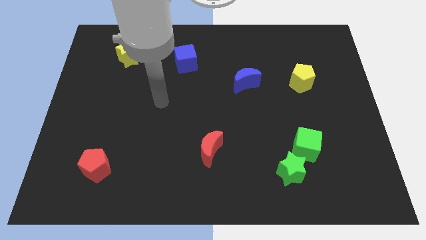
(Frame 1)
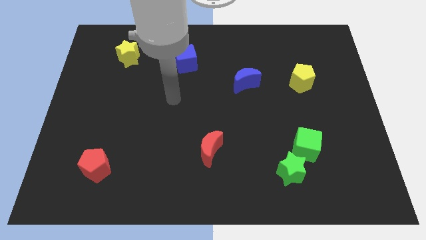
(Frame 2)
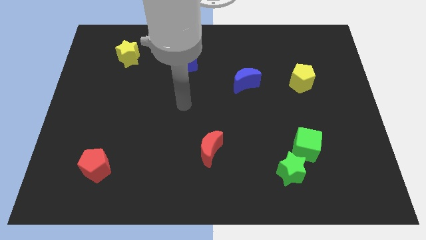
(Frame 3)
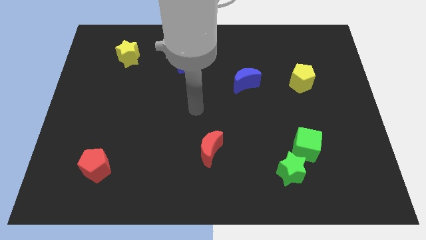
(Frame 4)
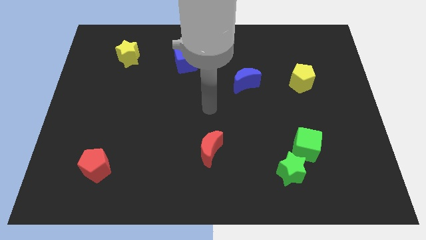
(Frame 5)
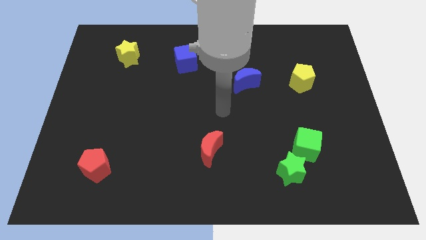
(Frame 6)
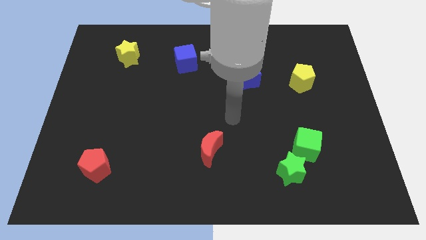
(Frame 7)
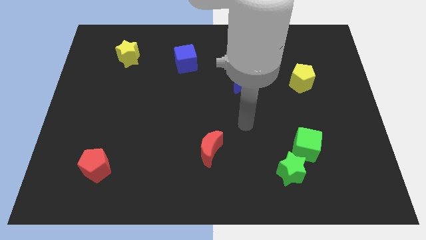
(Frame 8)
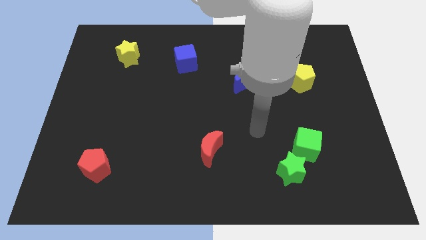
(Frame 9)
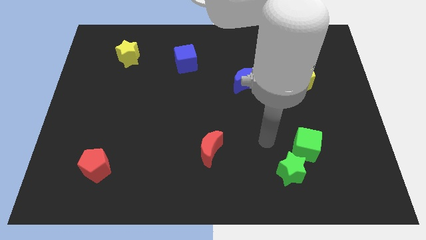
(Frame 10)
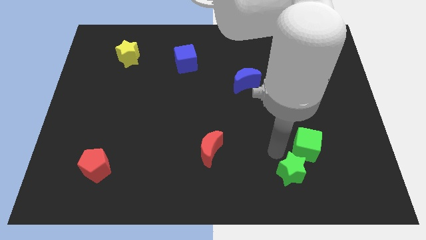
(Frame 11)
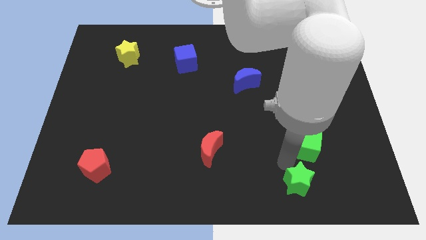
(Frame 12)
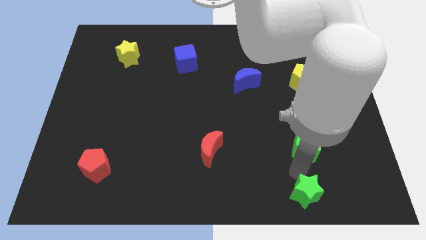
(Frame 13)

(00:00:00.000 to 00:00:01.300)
move the green cube away from the green star

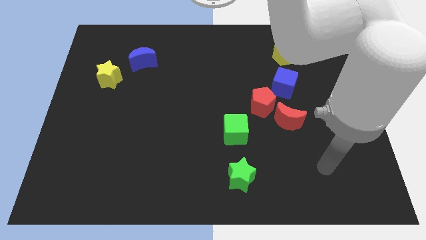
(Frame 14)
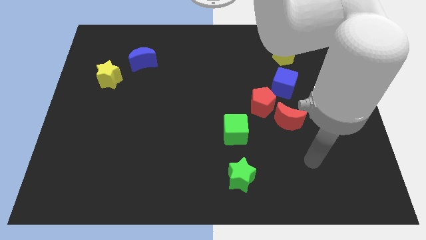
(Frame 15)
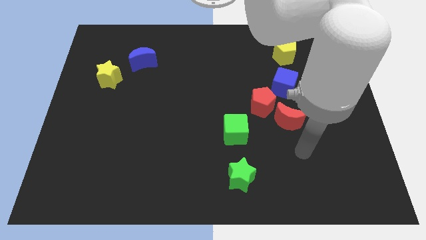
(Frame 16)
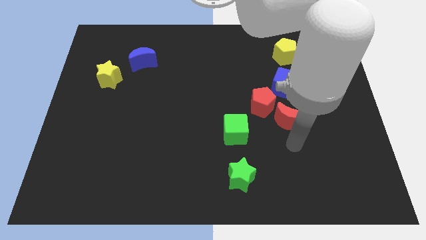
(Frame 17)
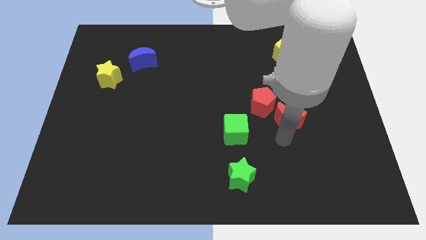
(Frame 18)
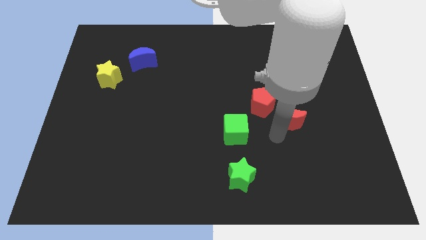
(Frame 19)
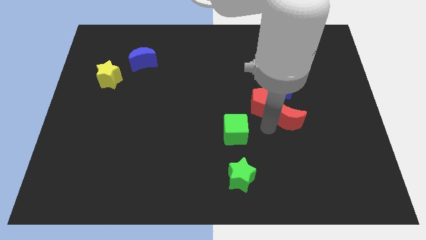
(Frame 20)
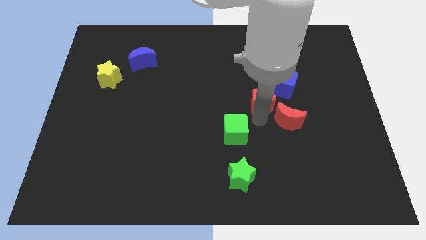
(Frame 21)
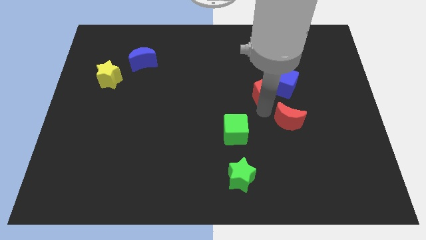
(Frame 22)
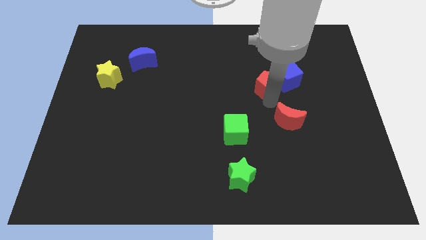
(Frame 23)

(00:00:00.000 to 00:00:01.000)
pull the red moon apart from the red pentagon

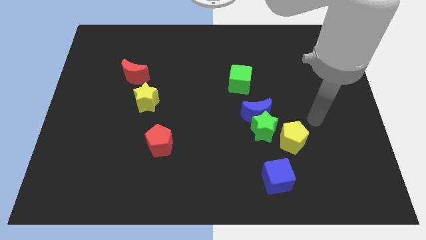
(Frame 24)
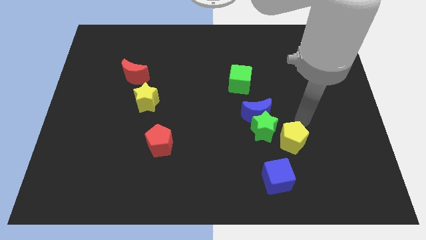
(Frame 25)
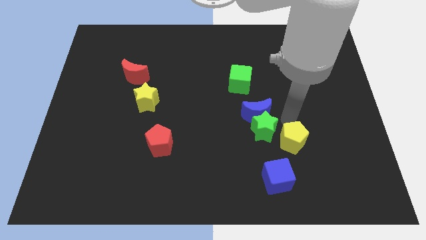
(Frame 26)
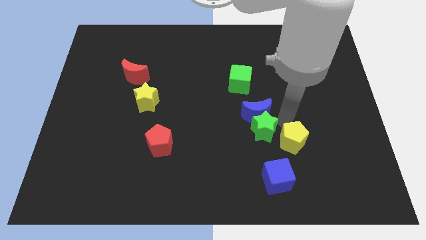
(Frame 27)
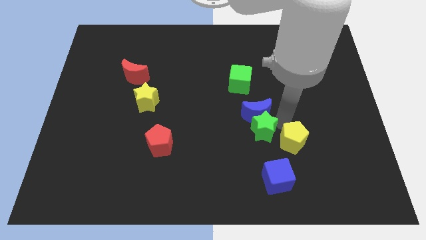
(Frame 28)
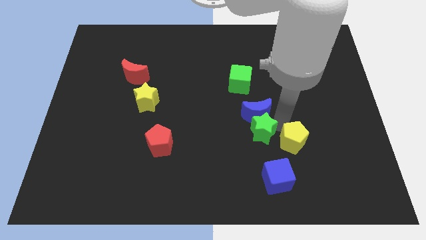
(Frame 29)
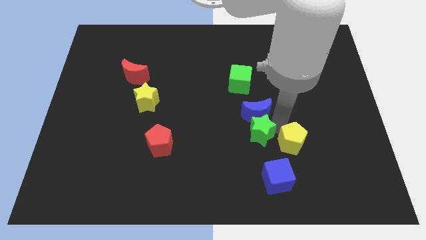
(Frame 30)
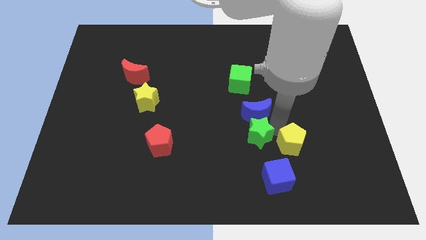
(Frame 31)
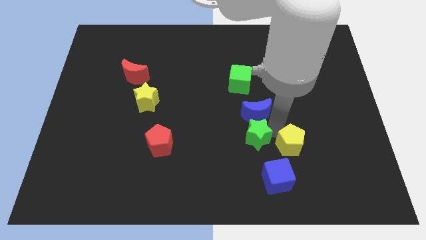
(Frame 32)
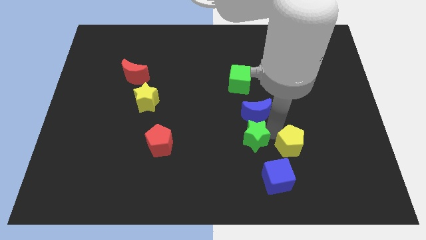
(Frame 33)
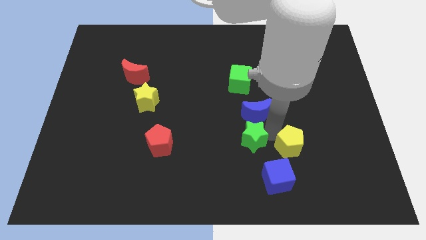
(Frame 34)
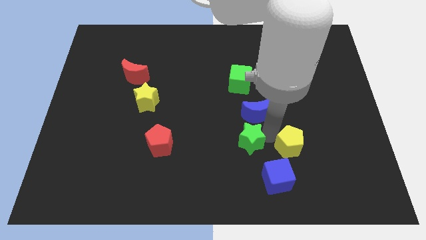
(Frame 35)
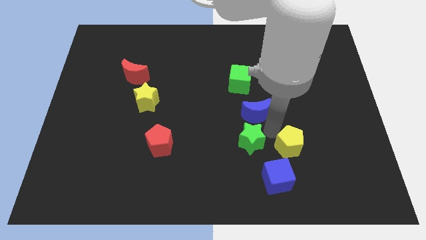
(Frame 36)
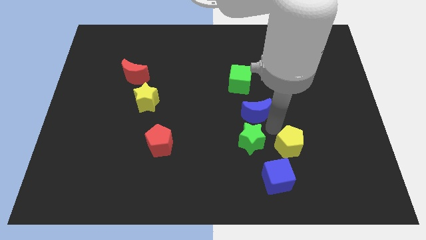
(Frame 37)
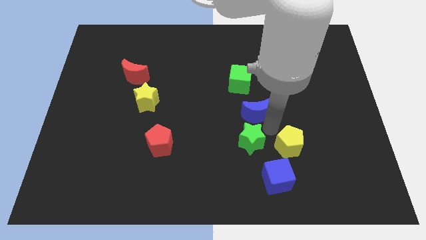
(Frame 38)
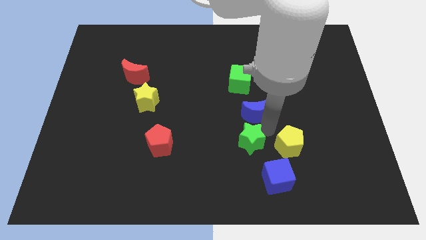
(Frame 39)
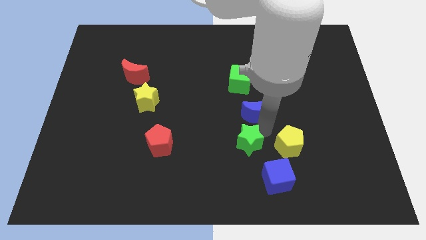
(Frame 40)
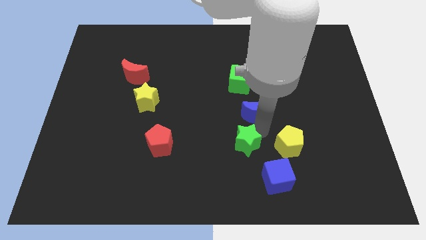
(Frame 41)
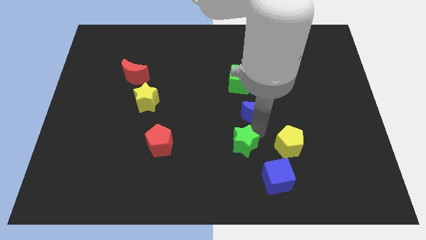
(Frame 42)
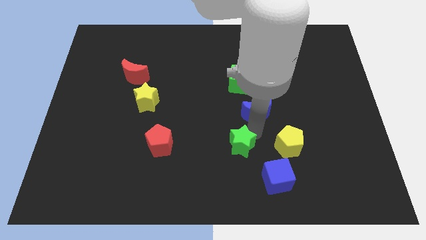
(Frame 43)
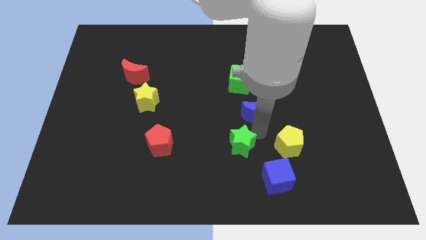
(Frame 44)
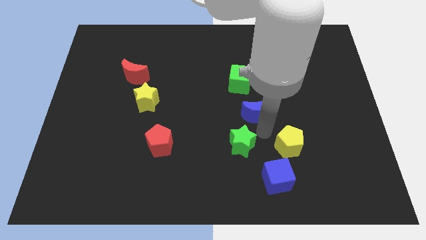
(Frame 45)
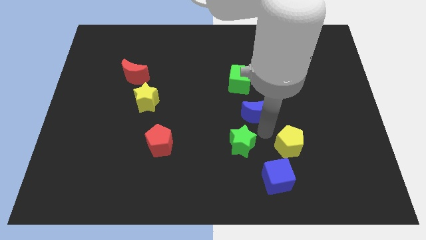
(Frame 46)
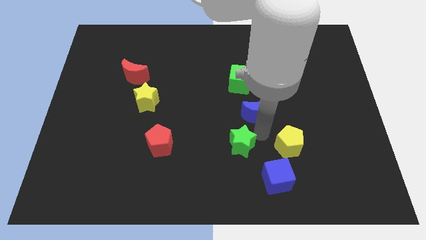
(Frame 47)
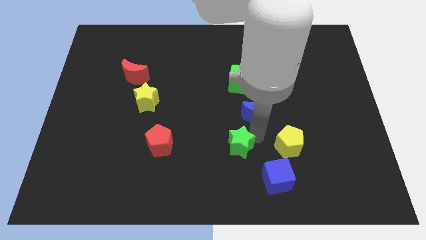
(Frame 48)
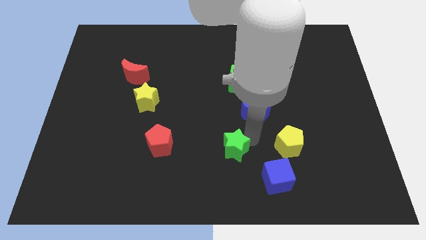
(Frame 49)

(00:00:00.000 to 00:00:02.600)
separate the green star from the blue moon and yellow pentagon

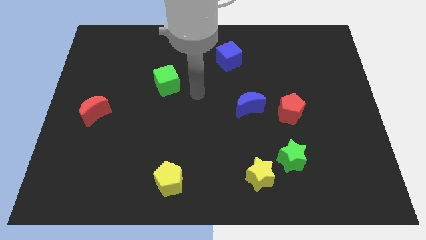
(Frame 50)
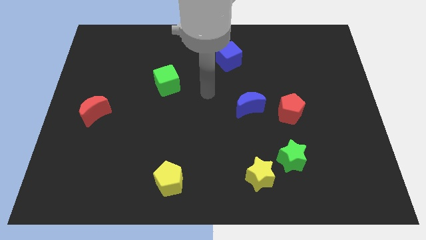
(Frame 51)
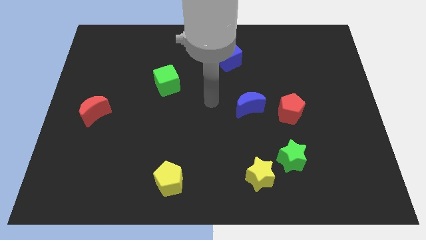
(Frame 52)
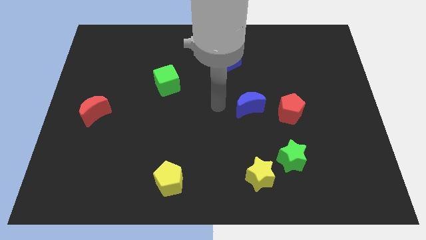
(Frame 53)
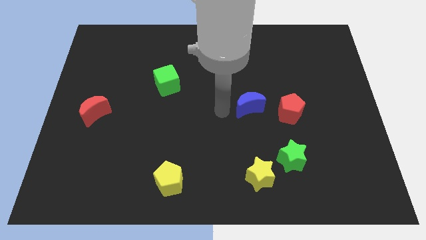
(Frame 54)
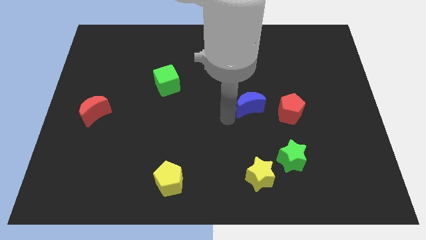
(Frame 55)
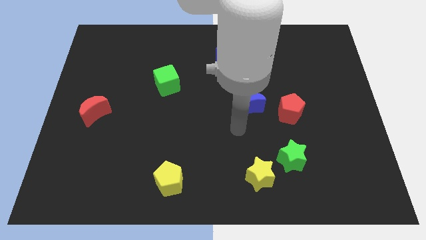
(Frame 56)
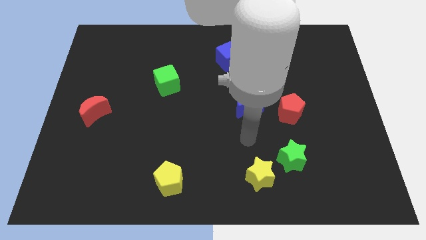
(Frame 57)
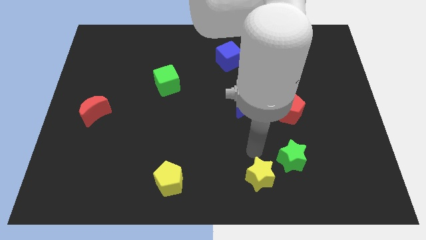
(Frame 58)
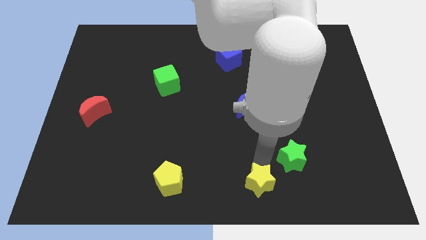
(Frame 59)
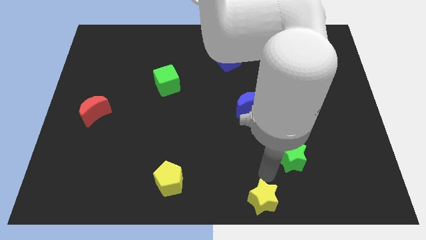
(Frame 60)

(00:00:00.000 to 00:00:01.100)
move the green star away from the yellow star

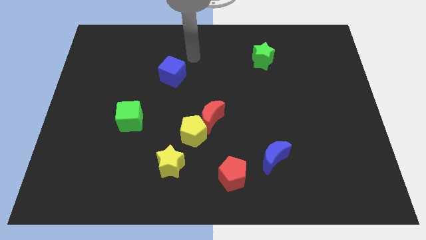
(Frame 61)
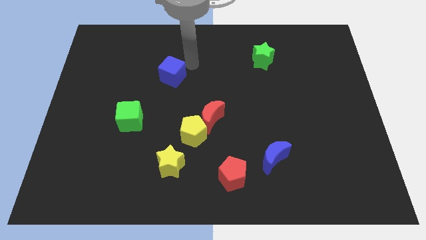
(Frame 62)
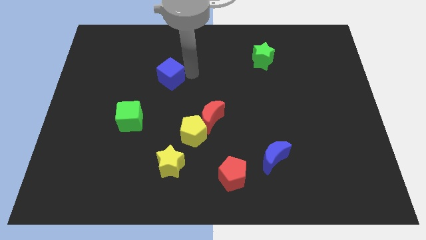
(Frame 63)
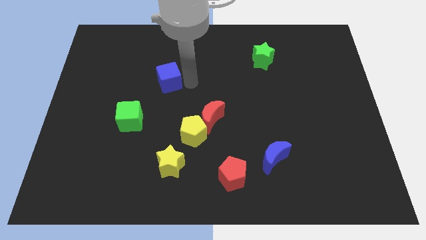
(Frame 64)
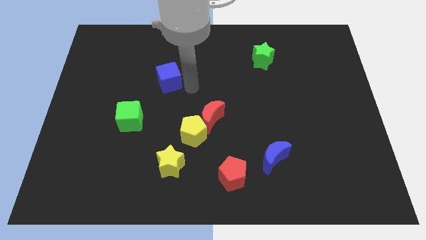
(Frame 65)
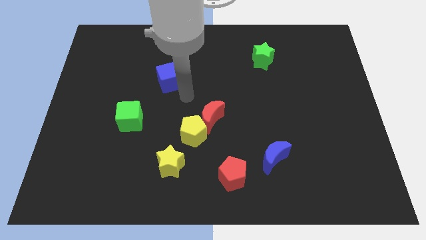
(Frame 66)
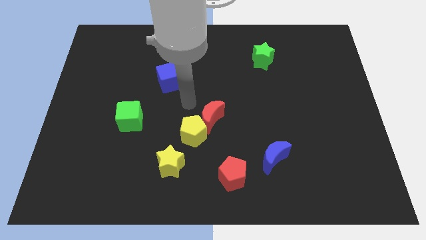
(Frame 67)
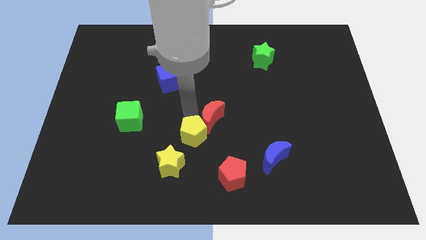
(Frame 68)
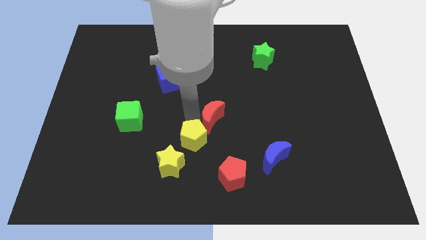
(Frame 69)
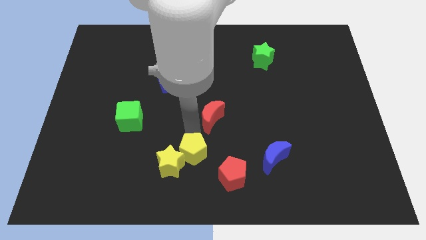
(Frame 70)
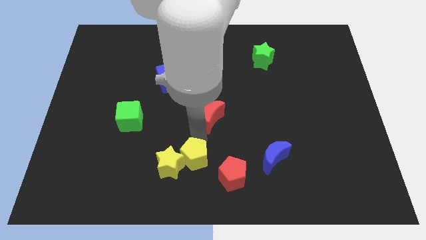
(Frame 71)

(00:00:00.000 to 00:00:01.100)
move the red moon away from the yellow pentagon

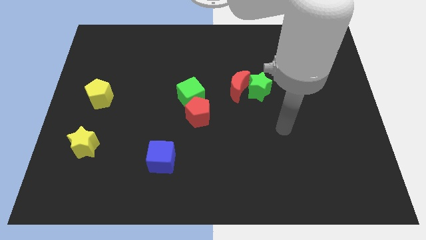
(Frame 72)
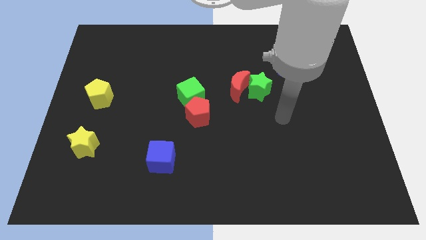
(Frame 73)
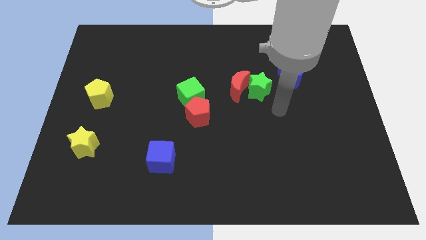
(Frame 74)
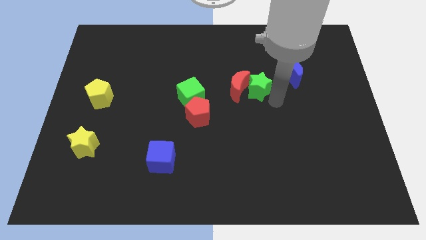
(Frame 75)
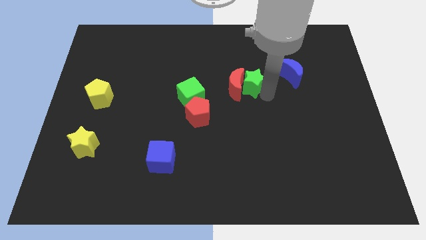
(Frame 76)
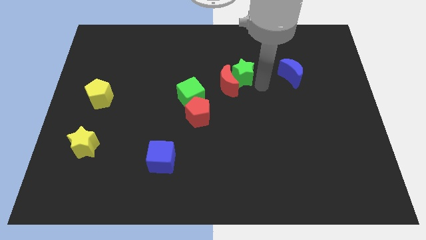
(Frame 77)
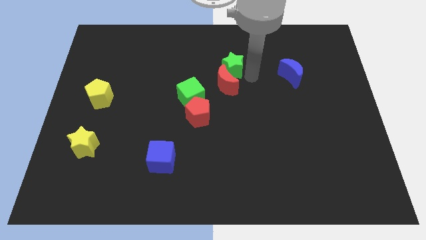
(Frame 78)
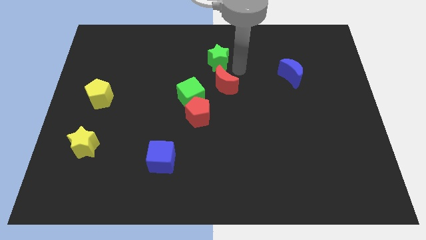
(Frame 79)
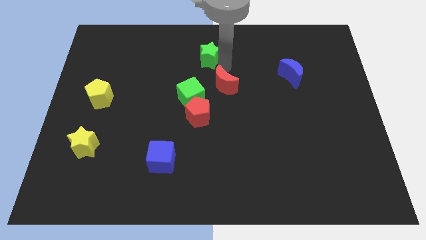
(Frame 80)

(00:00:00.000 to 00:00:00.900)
pull the red moon apart from the green star

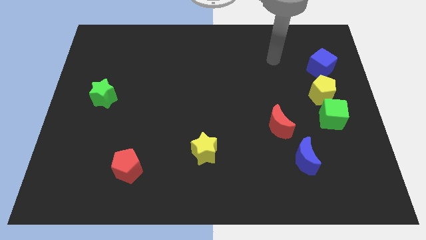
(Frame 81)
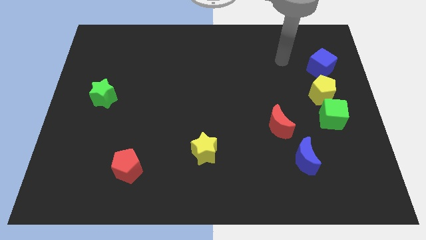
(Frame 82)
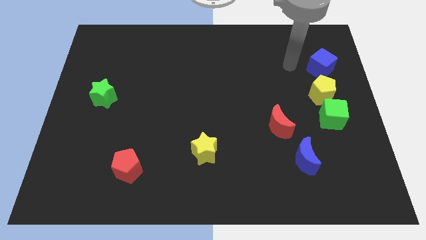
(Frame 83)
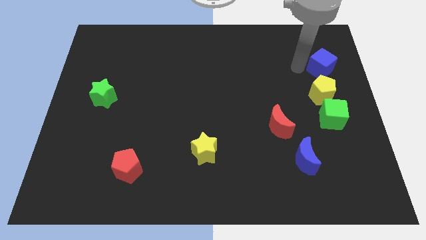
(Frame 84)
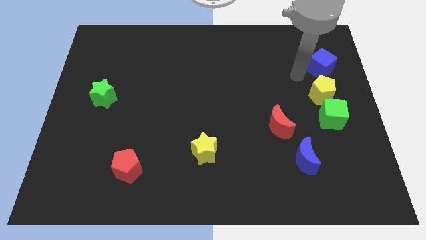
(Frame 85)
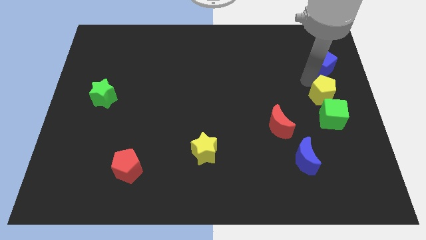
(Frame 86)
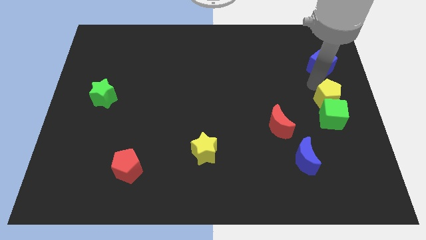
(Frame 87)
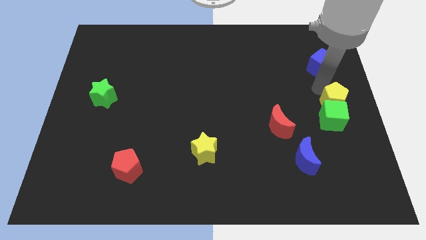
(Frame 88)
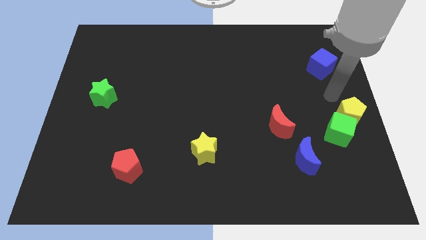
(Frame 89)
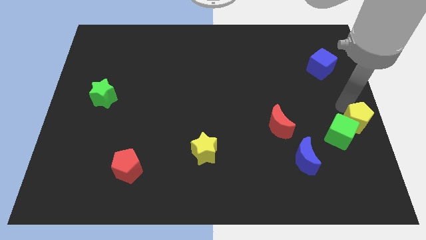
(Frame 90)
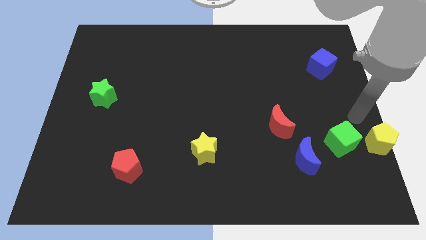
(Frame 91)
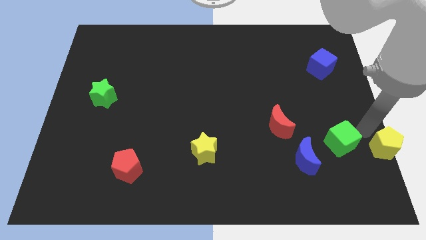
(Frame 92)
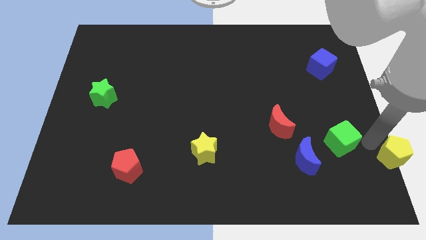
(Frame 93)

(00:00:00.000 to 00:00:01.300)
pull the green cube apart from the yellow pentagon

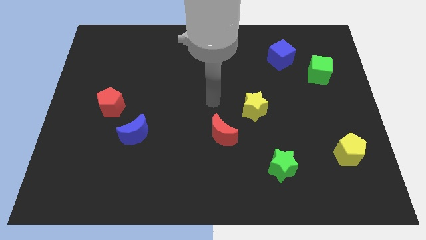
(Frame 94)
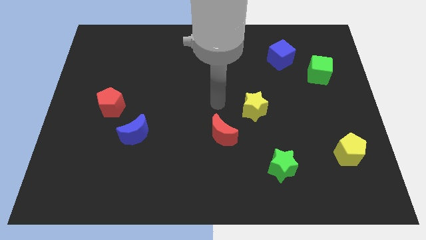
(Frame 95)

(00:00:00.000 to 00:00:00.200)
move the red moon away from the yellow star
